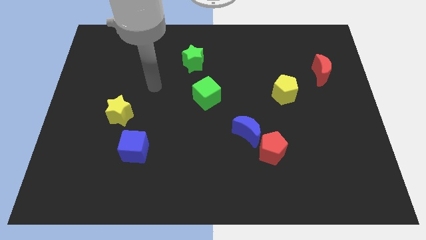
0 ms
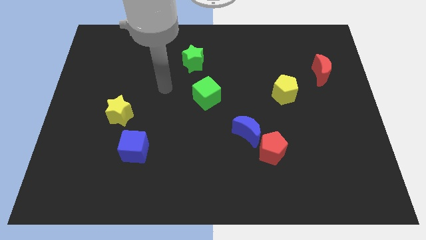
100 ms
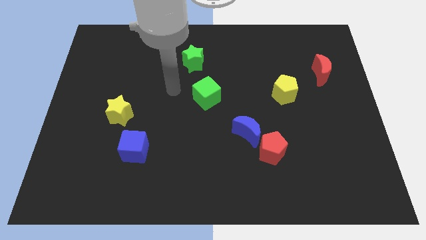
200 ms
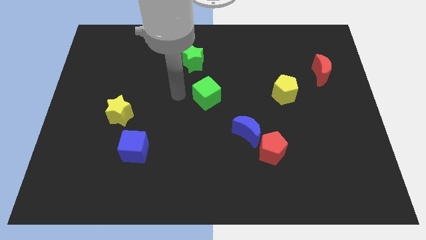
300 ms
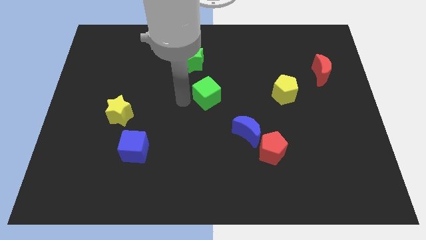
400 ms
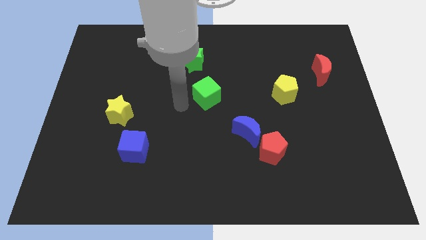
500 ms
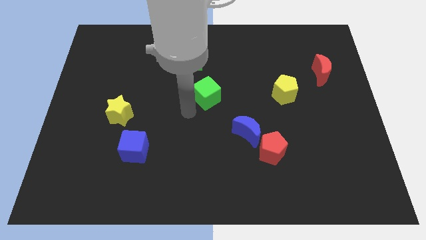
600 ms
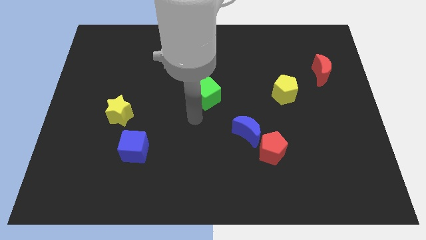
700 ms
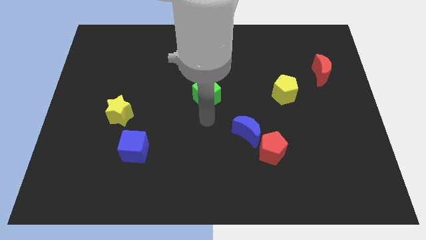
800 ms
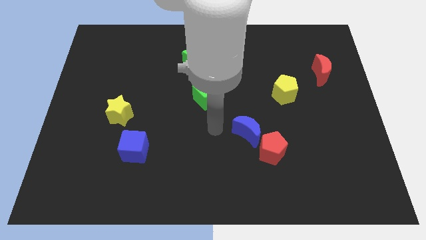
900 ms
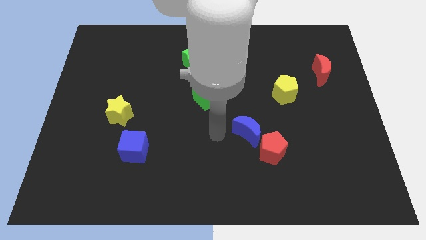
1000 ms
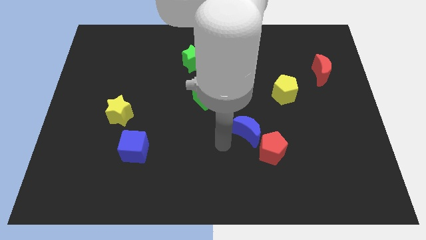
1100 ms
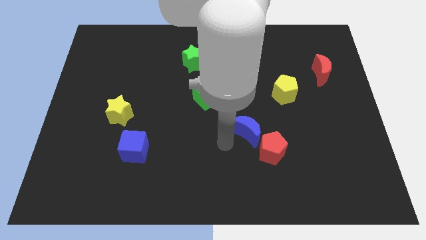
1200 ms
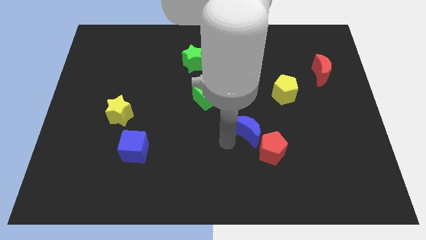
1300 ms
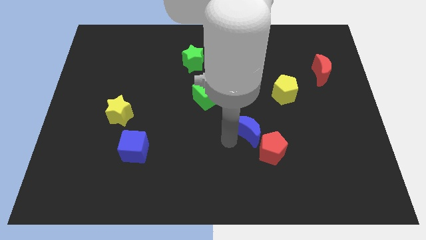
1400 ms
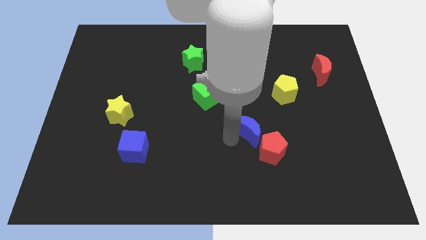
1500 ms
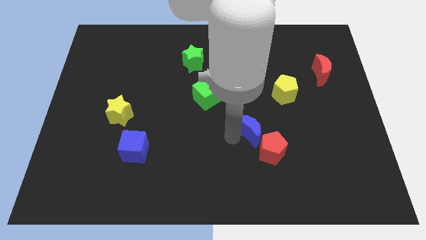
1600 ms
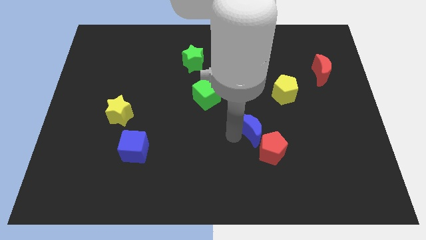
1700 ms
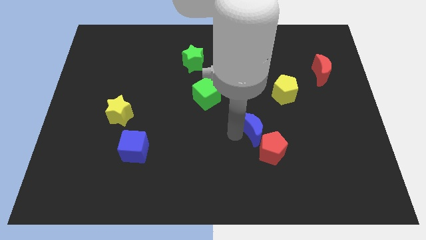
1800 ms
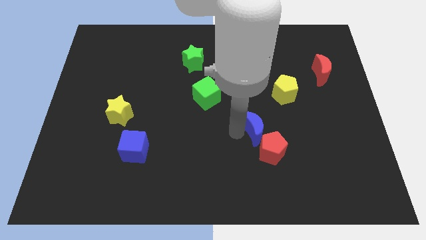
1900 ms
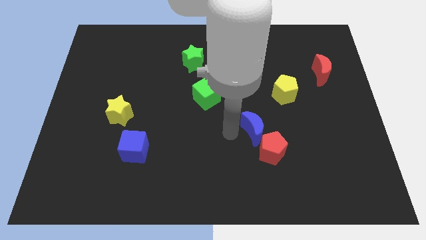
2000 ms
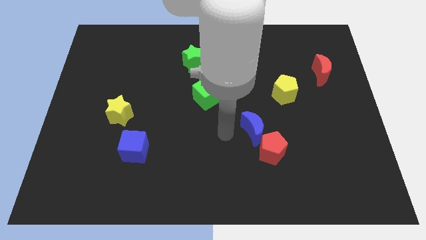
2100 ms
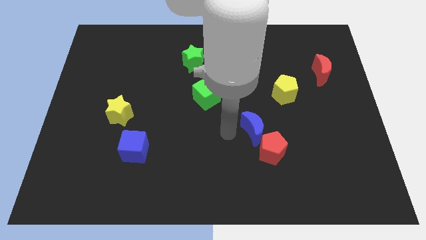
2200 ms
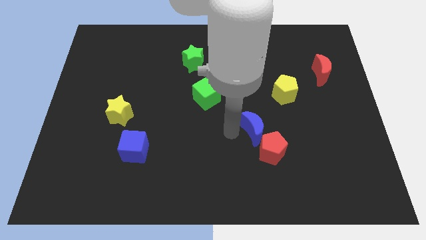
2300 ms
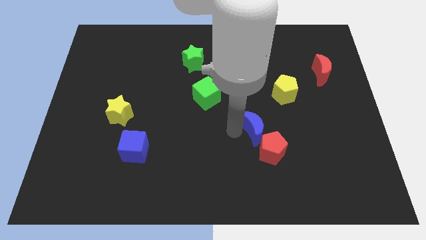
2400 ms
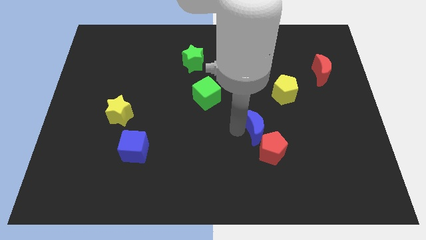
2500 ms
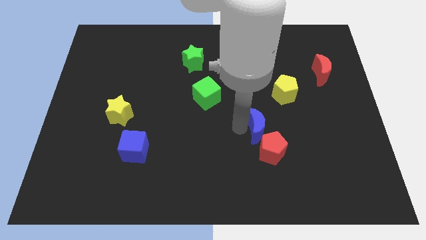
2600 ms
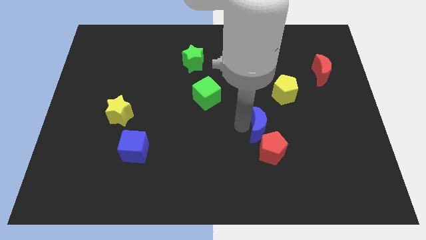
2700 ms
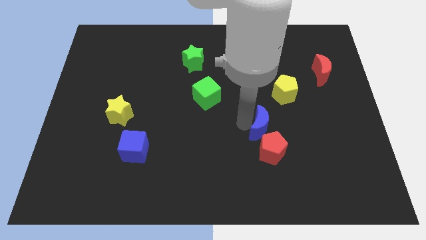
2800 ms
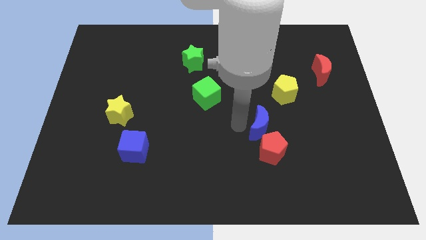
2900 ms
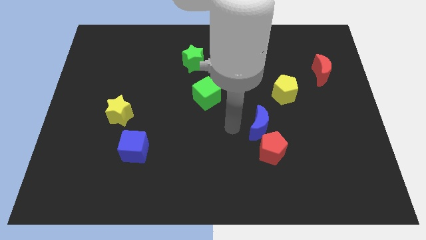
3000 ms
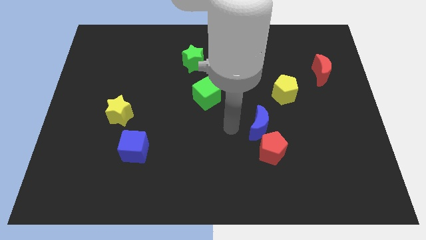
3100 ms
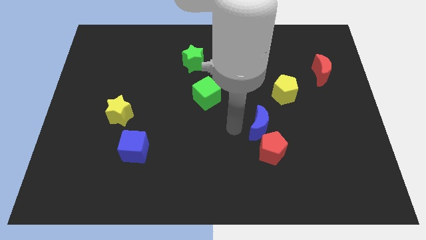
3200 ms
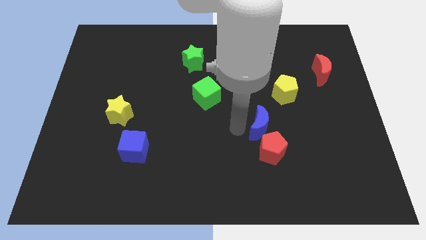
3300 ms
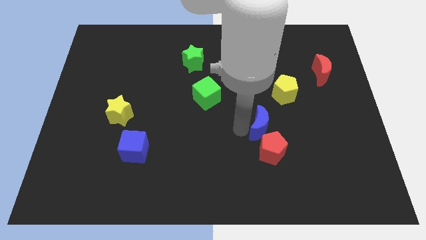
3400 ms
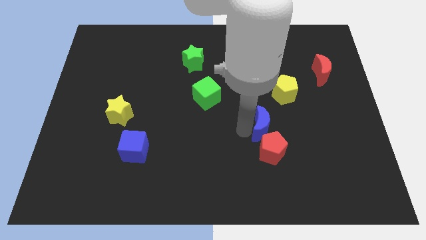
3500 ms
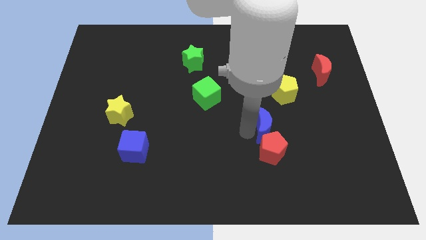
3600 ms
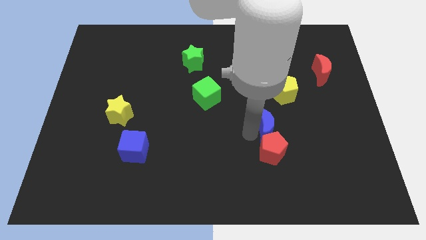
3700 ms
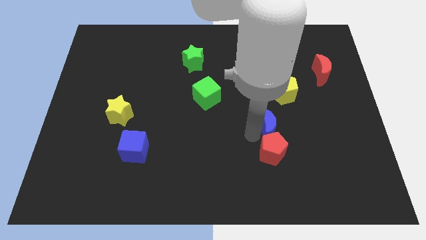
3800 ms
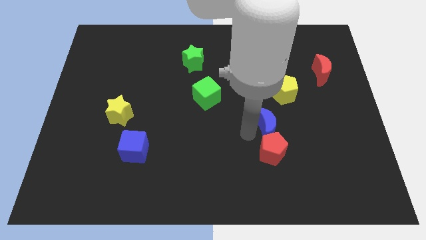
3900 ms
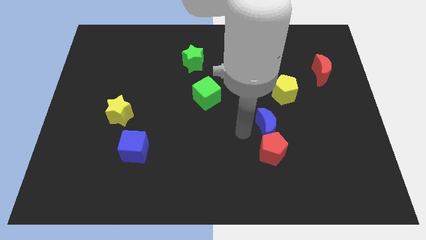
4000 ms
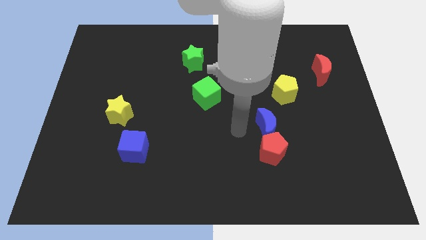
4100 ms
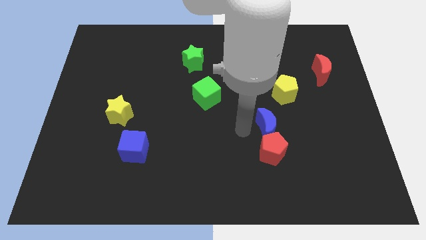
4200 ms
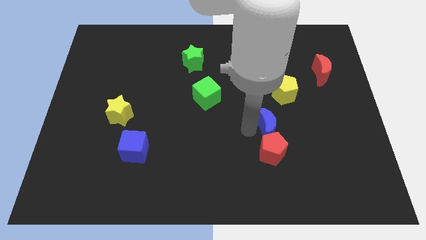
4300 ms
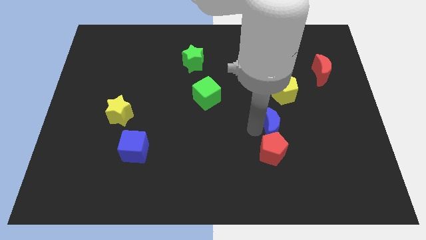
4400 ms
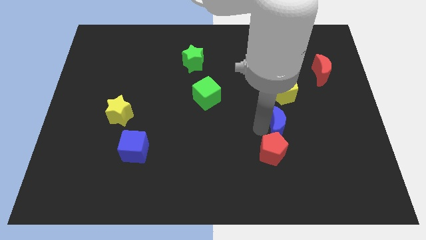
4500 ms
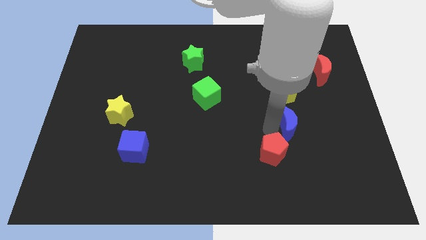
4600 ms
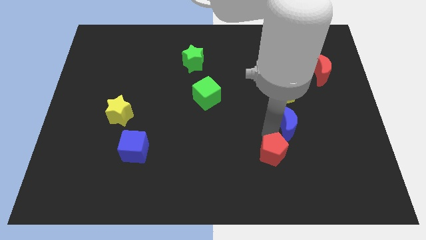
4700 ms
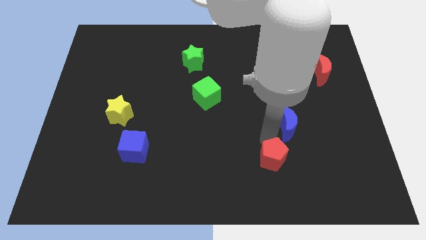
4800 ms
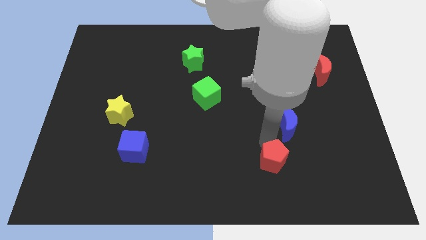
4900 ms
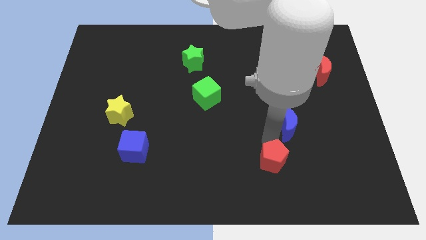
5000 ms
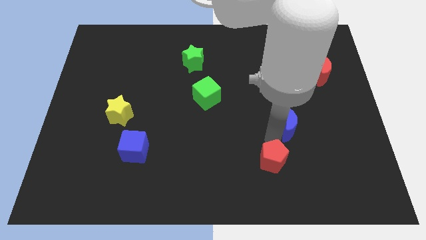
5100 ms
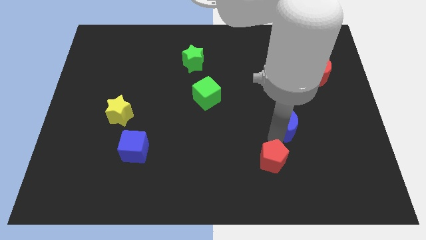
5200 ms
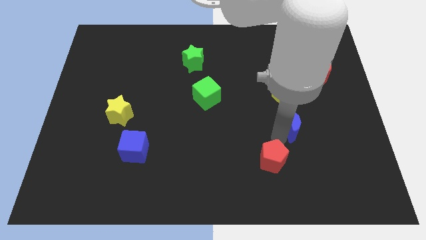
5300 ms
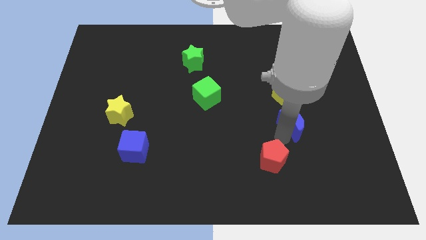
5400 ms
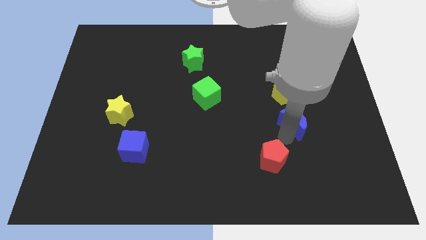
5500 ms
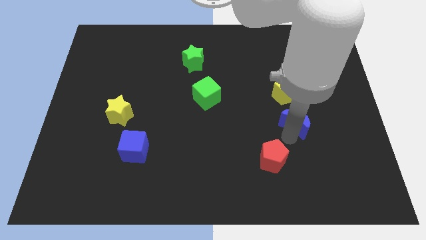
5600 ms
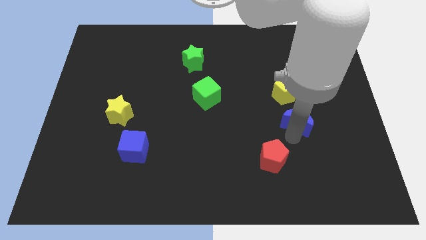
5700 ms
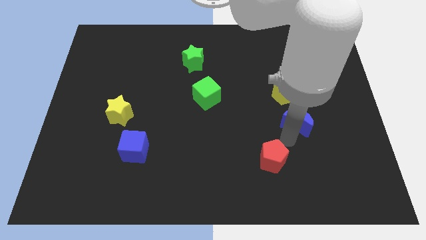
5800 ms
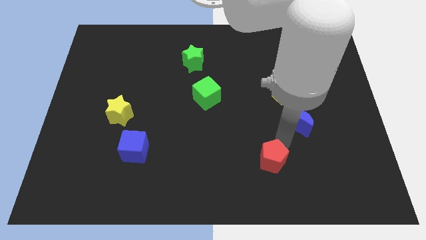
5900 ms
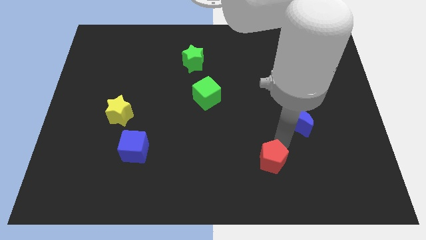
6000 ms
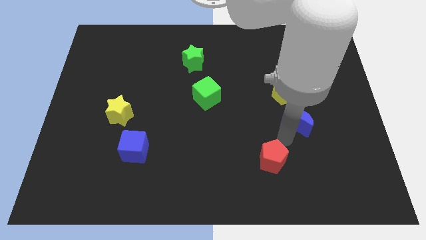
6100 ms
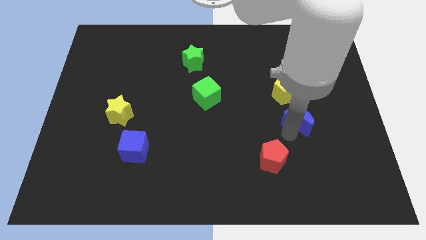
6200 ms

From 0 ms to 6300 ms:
push the blue moon to the bottom right of the yellow pentagon
